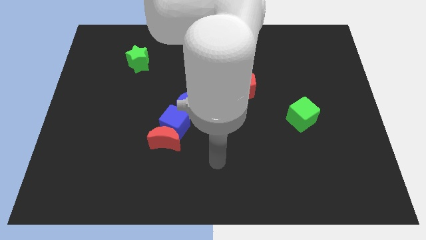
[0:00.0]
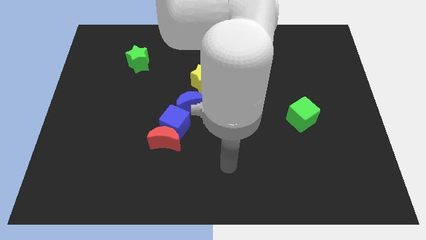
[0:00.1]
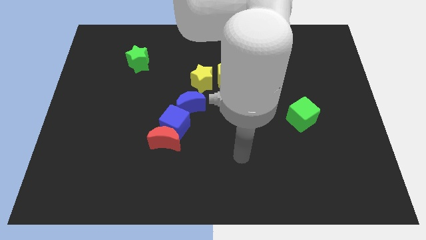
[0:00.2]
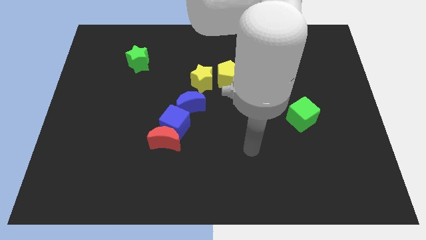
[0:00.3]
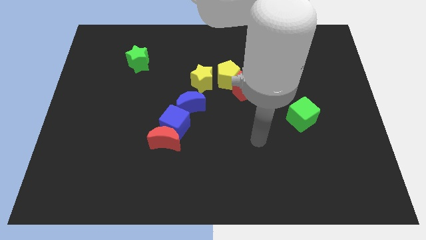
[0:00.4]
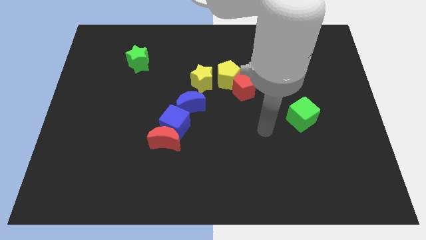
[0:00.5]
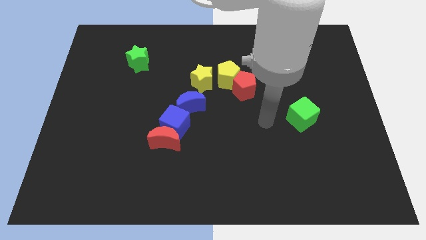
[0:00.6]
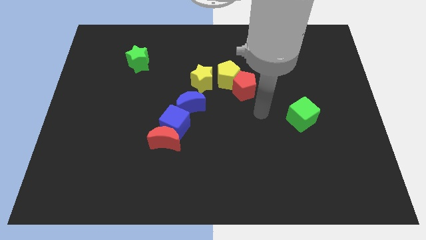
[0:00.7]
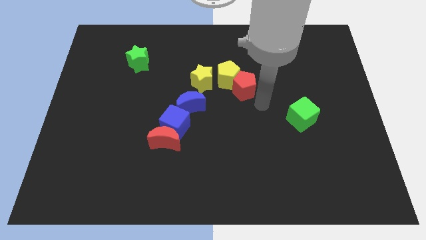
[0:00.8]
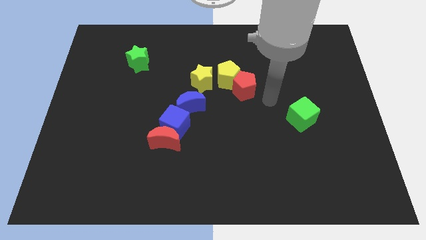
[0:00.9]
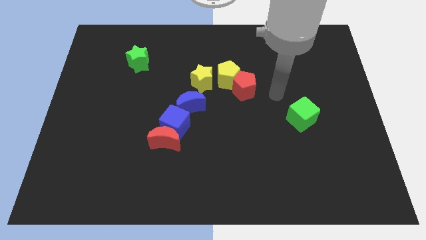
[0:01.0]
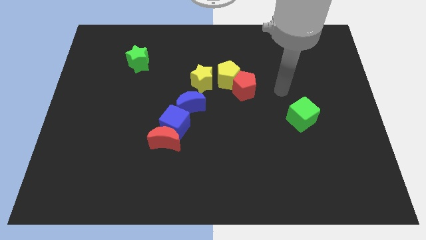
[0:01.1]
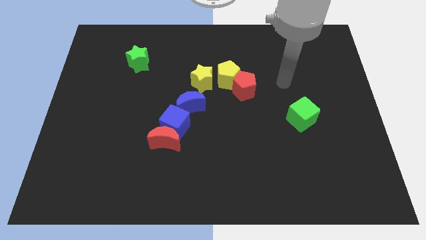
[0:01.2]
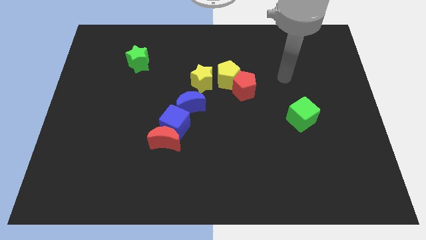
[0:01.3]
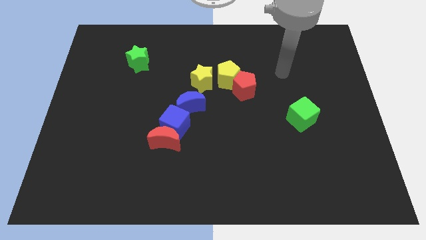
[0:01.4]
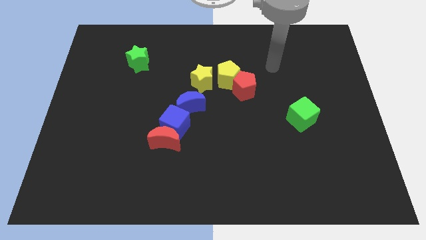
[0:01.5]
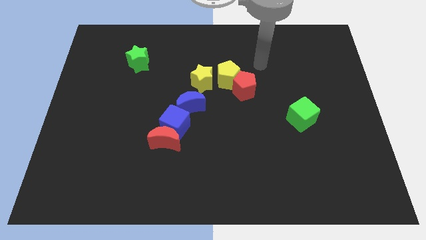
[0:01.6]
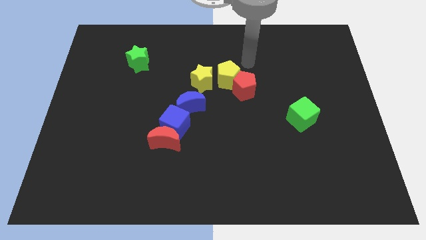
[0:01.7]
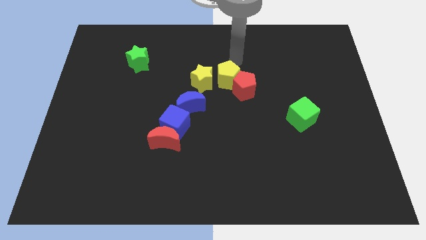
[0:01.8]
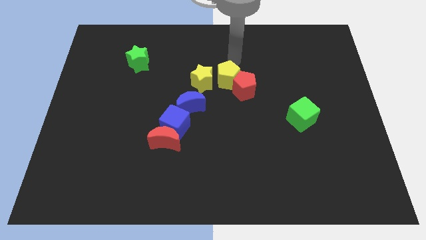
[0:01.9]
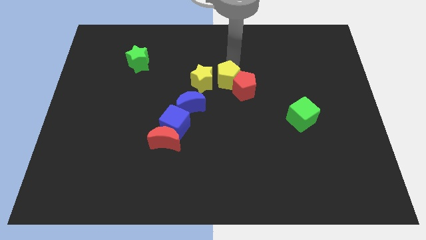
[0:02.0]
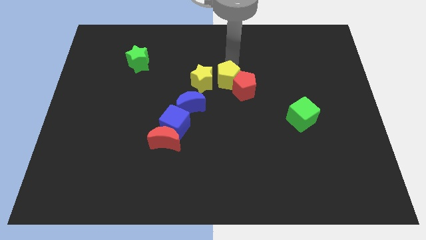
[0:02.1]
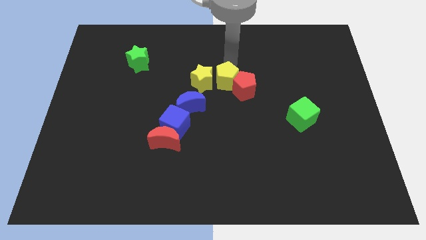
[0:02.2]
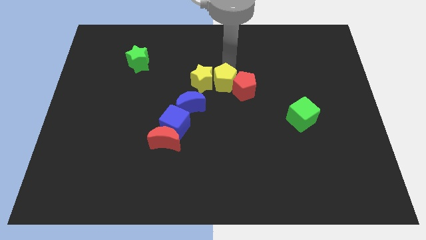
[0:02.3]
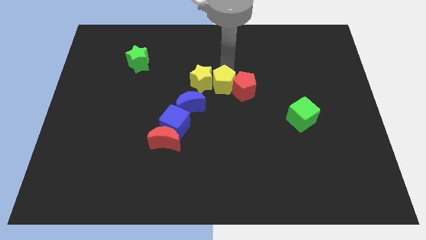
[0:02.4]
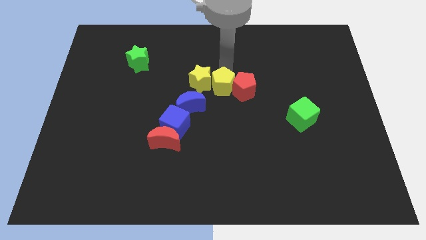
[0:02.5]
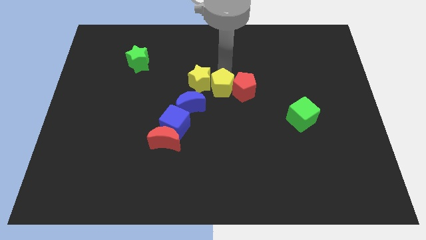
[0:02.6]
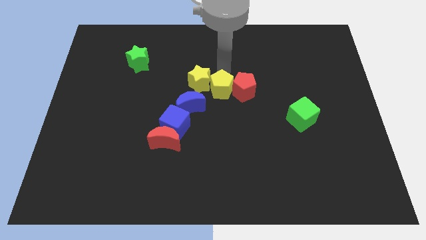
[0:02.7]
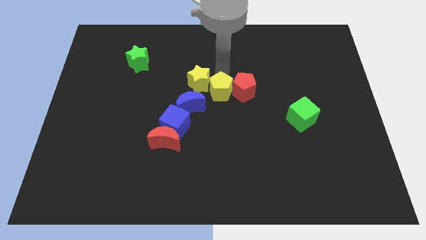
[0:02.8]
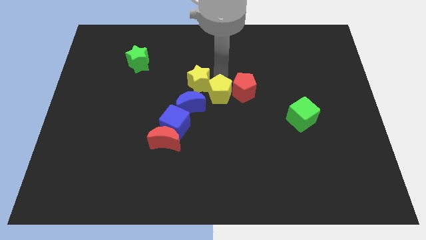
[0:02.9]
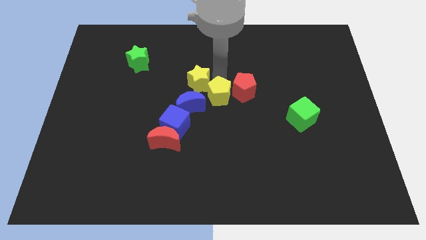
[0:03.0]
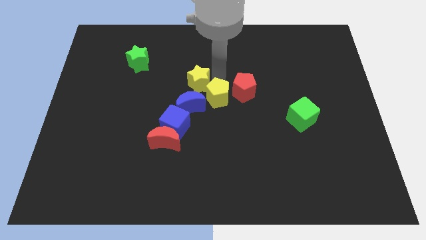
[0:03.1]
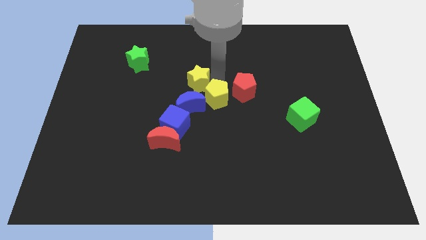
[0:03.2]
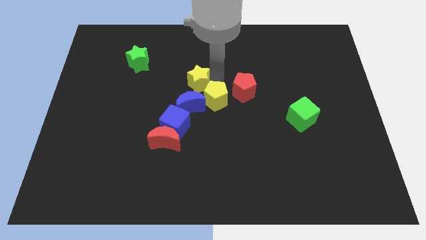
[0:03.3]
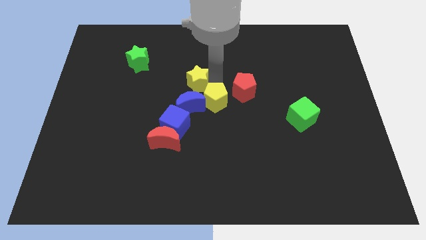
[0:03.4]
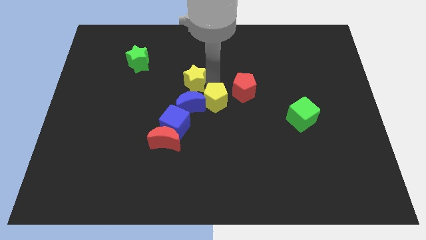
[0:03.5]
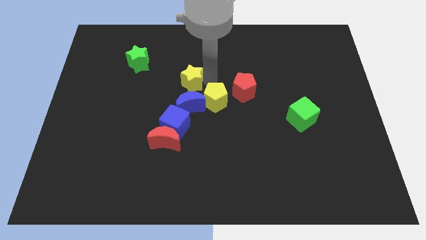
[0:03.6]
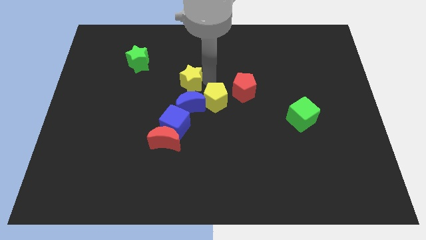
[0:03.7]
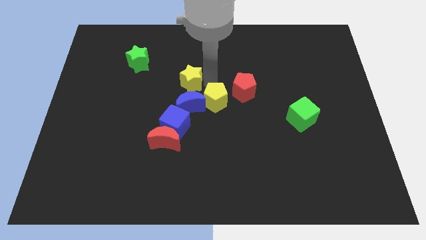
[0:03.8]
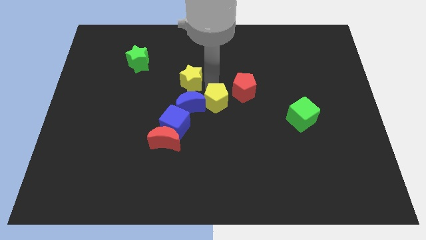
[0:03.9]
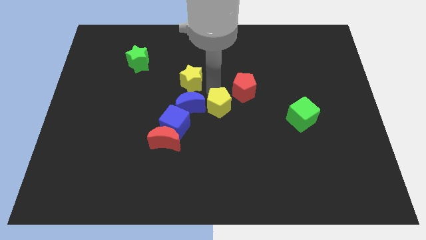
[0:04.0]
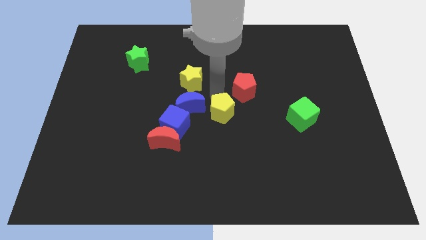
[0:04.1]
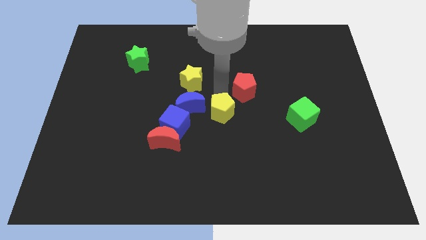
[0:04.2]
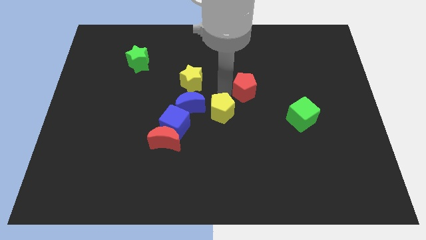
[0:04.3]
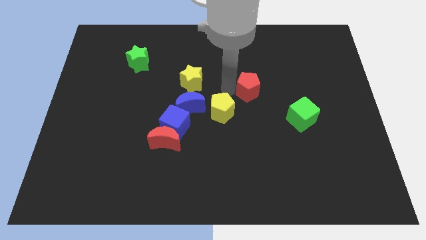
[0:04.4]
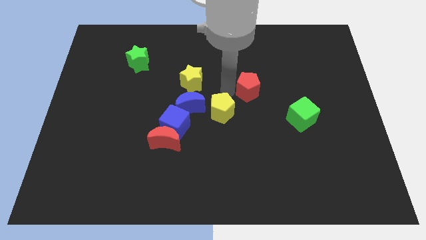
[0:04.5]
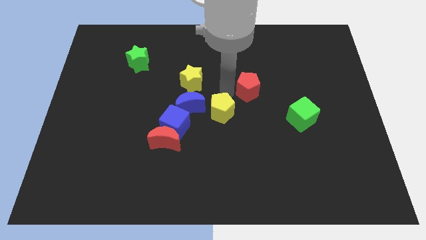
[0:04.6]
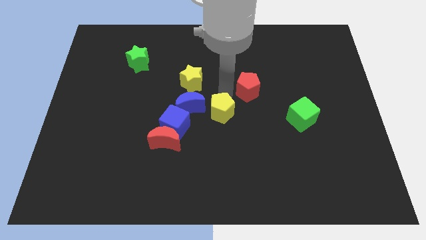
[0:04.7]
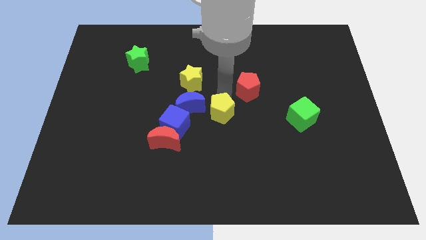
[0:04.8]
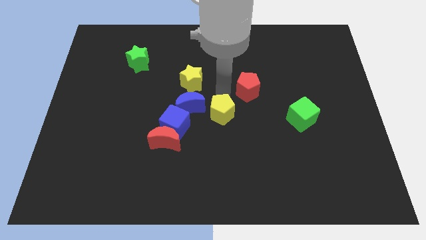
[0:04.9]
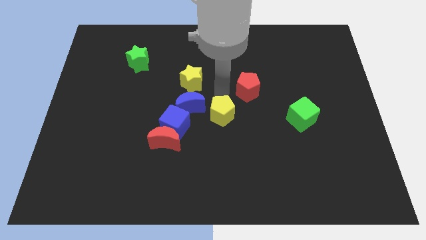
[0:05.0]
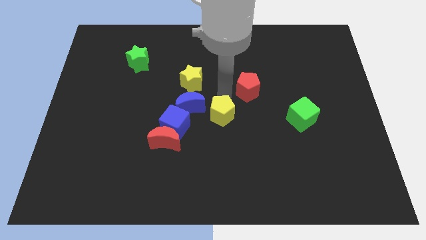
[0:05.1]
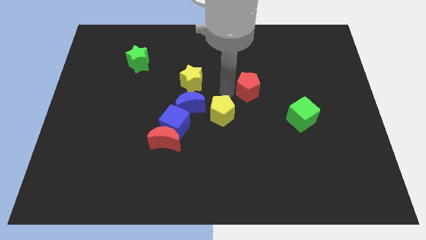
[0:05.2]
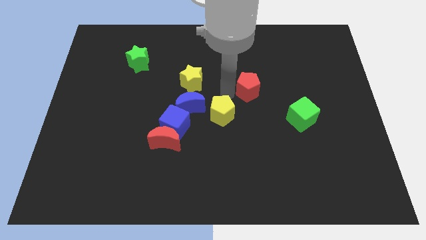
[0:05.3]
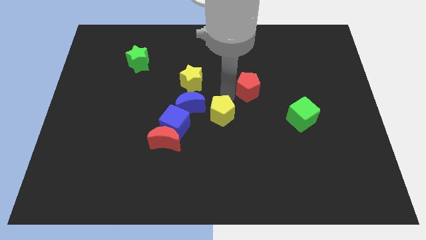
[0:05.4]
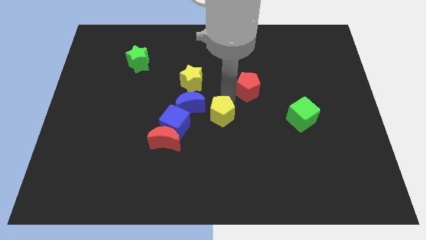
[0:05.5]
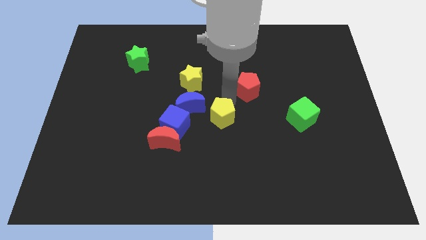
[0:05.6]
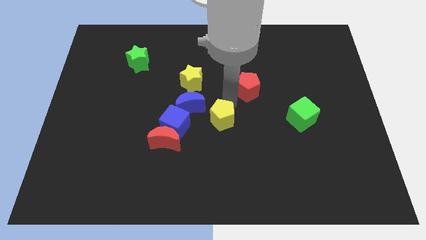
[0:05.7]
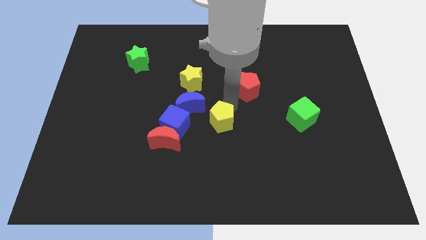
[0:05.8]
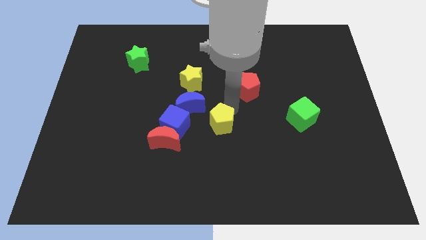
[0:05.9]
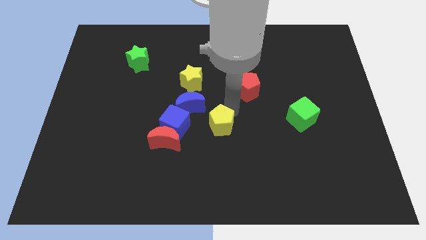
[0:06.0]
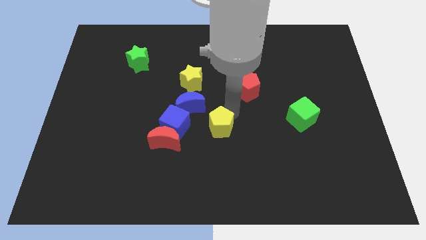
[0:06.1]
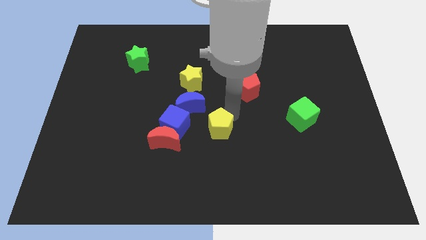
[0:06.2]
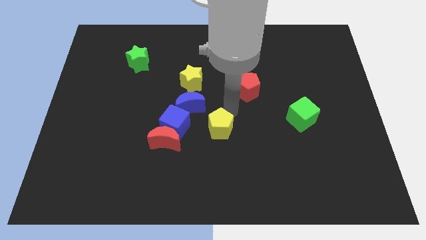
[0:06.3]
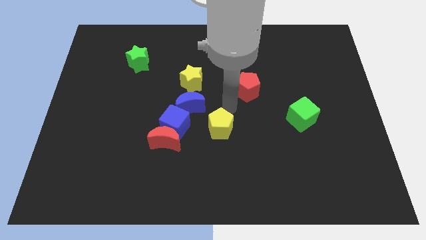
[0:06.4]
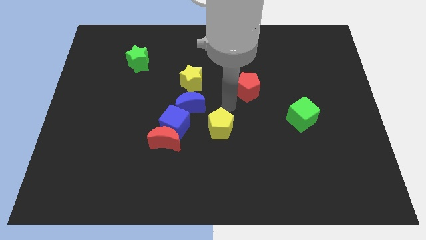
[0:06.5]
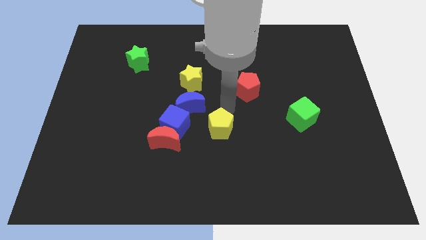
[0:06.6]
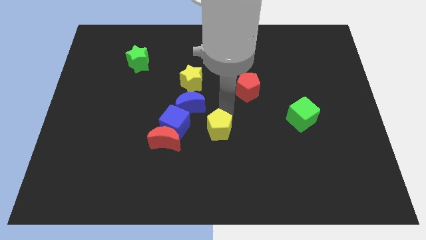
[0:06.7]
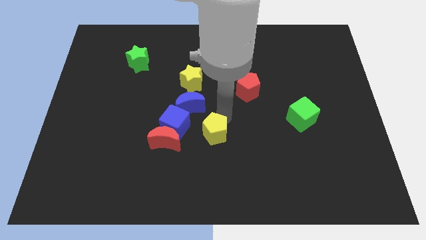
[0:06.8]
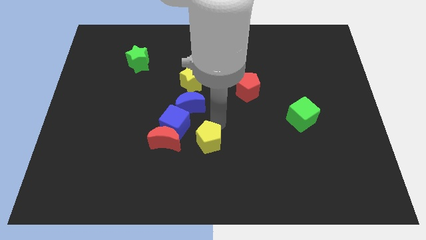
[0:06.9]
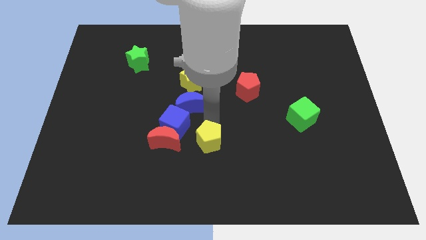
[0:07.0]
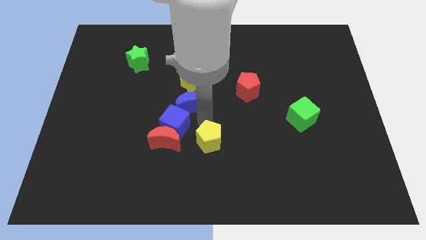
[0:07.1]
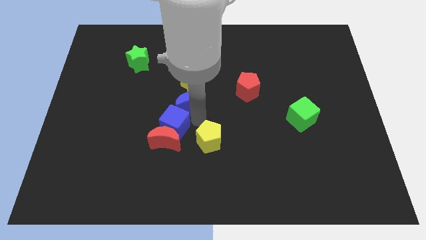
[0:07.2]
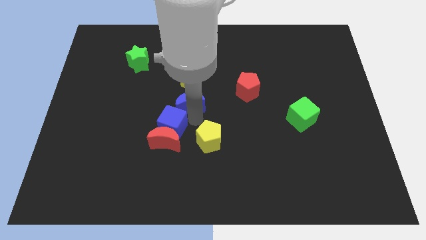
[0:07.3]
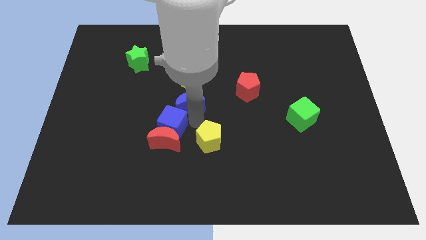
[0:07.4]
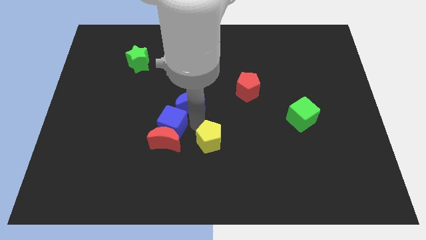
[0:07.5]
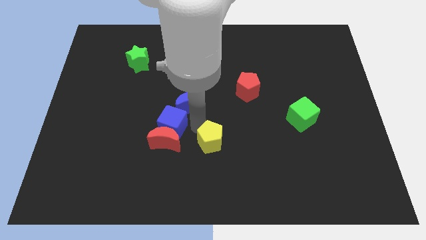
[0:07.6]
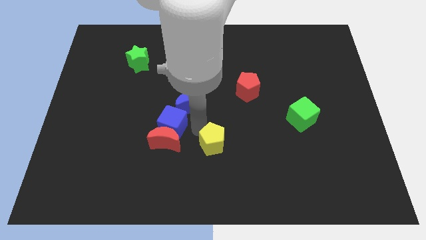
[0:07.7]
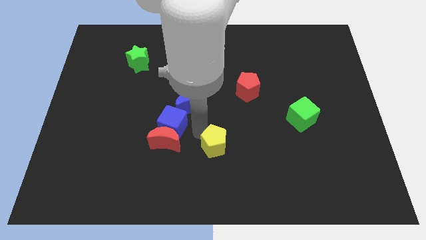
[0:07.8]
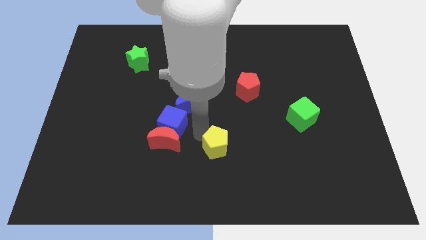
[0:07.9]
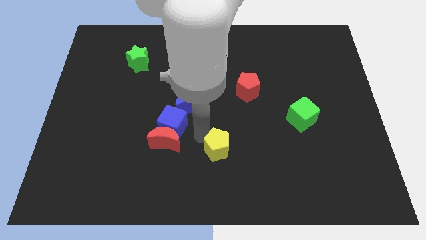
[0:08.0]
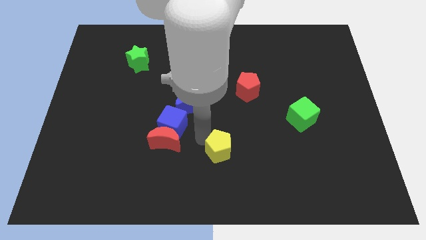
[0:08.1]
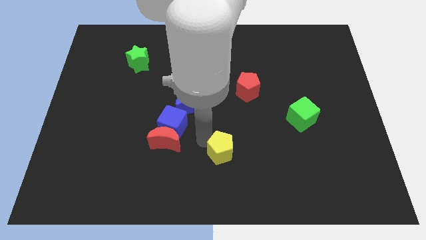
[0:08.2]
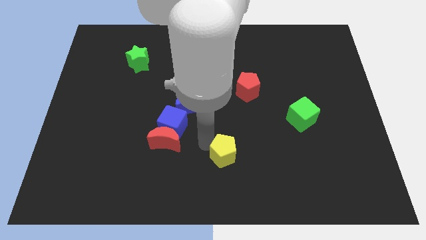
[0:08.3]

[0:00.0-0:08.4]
put the yellow pentagon to the bottom side
